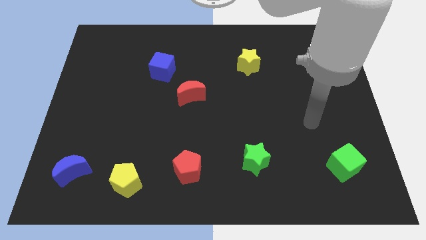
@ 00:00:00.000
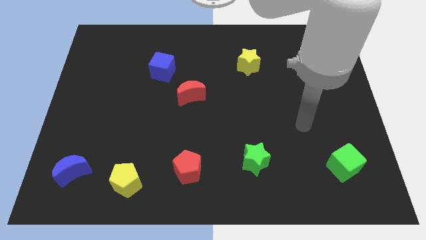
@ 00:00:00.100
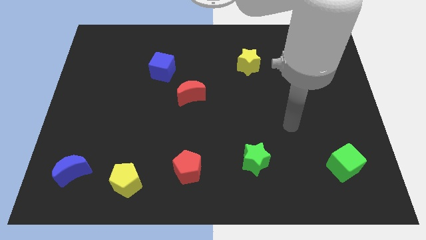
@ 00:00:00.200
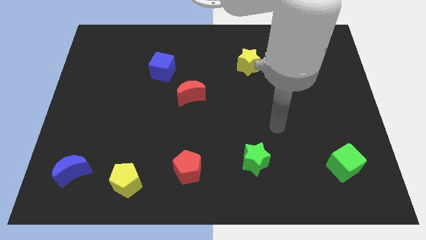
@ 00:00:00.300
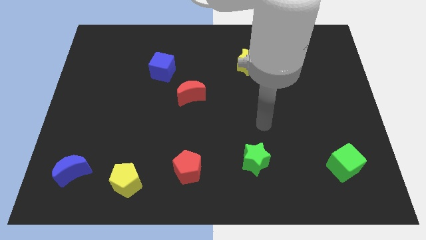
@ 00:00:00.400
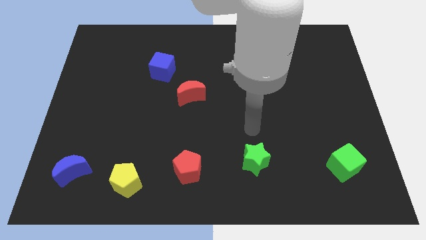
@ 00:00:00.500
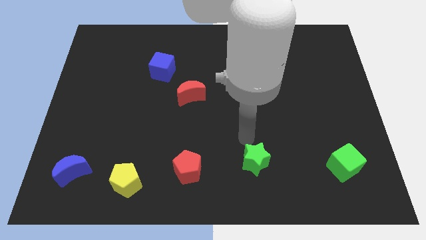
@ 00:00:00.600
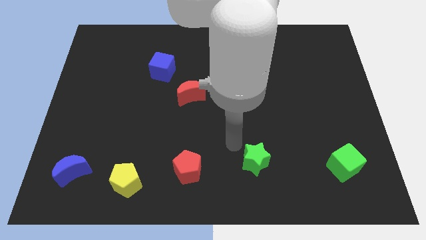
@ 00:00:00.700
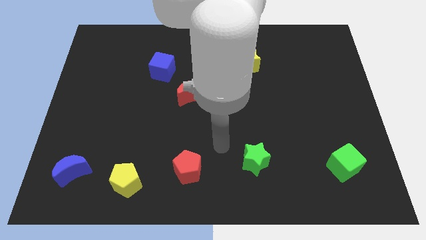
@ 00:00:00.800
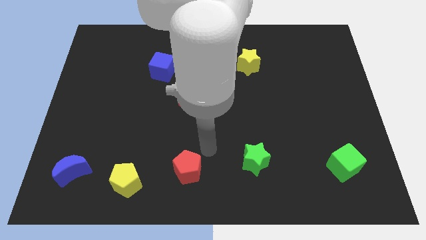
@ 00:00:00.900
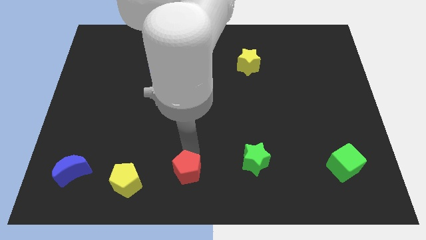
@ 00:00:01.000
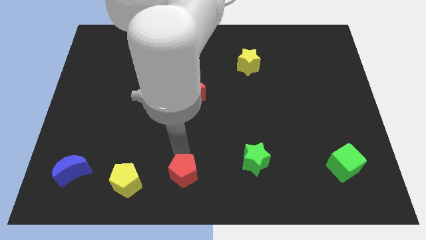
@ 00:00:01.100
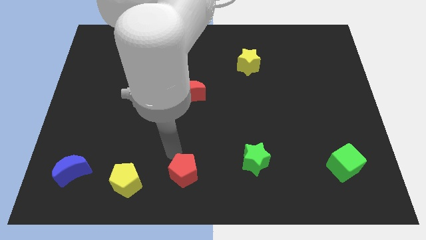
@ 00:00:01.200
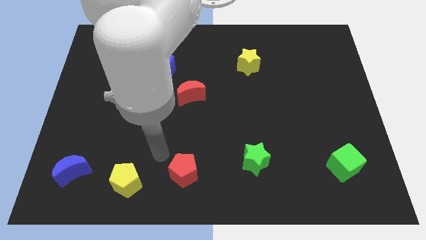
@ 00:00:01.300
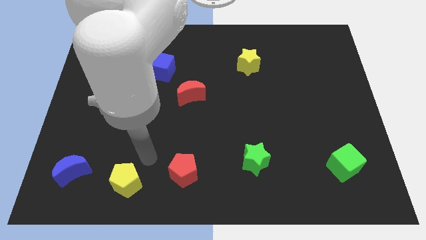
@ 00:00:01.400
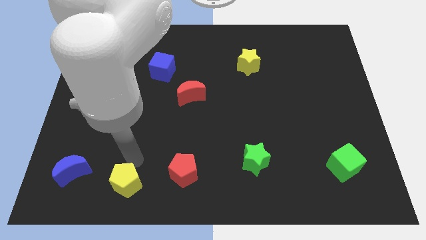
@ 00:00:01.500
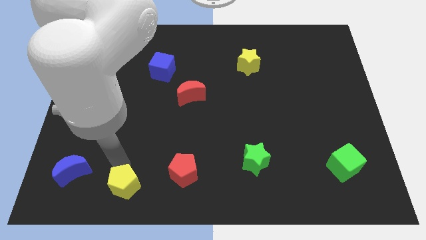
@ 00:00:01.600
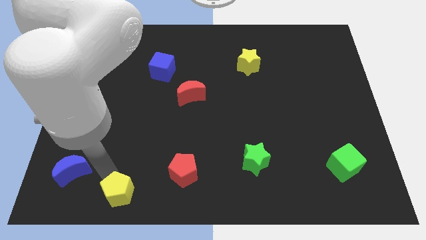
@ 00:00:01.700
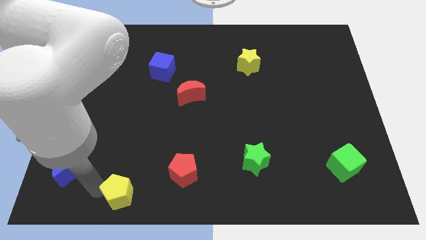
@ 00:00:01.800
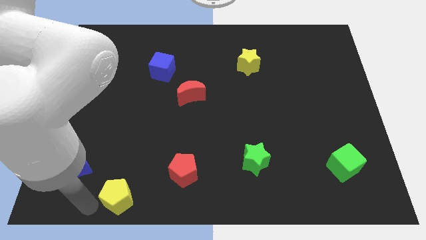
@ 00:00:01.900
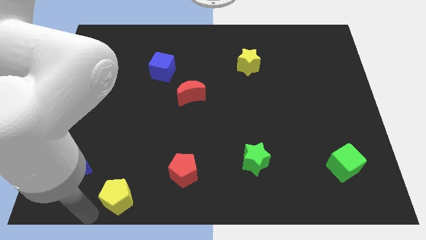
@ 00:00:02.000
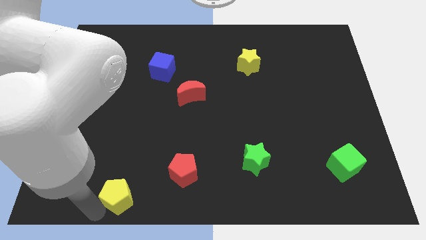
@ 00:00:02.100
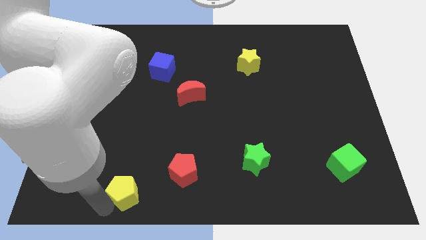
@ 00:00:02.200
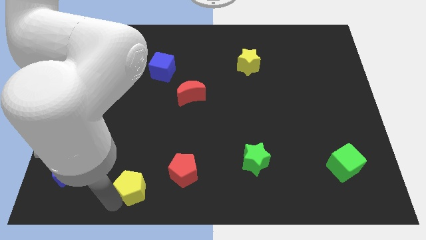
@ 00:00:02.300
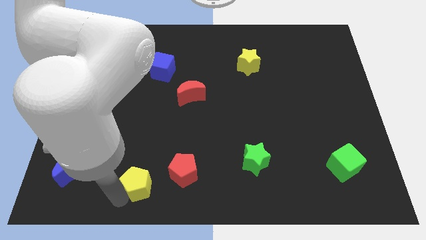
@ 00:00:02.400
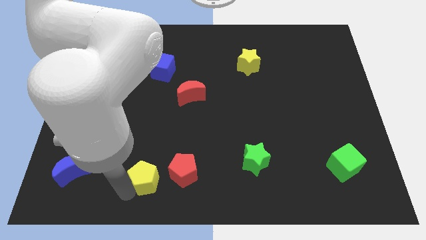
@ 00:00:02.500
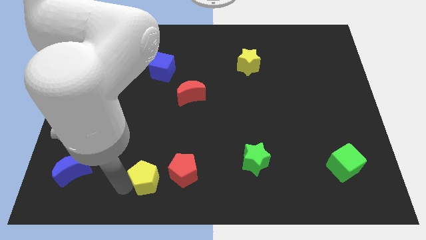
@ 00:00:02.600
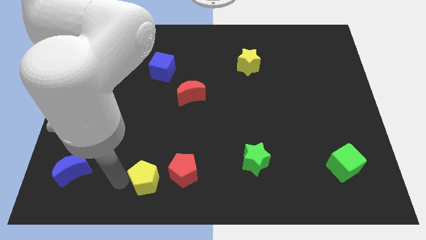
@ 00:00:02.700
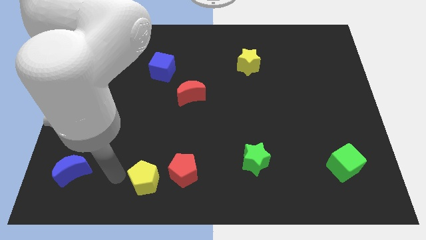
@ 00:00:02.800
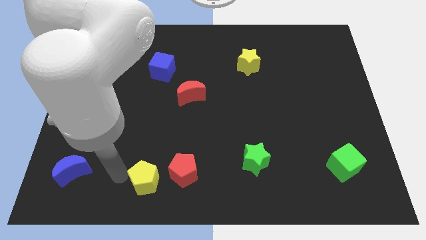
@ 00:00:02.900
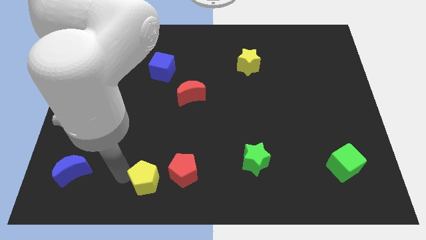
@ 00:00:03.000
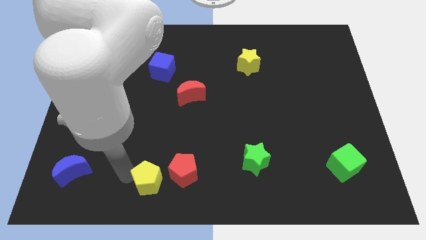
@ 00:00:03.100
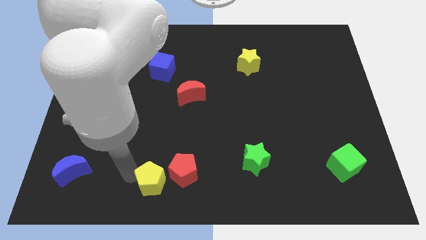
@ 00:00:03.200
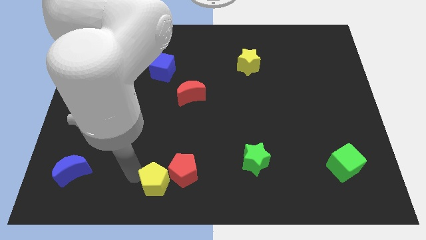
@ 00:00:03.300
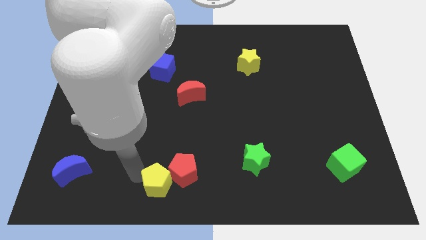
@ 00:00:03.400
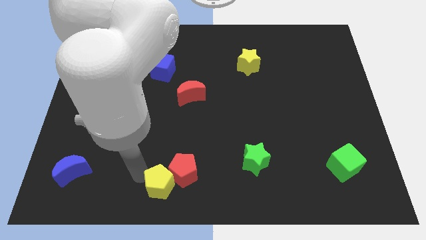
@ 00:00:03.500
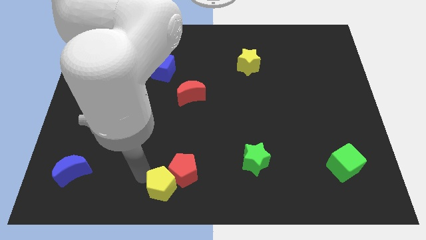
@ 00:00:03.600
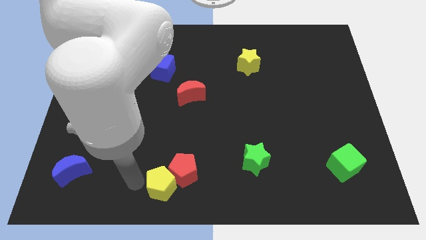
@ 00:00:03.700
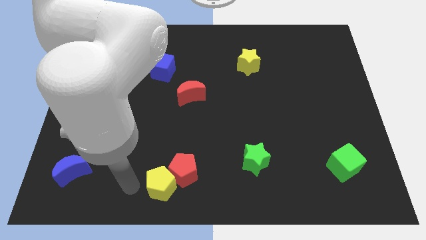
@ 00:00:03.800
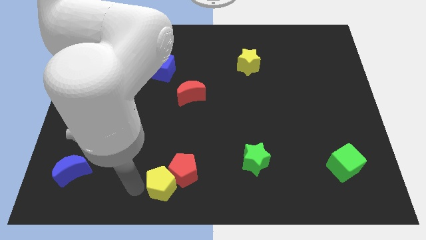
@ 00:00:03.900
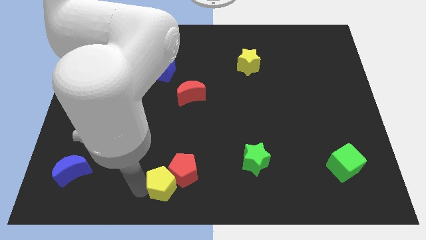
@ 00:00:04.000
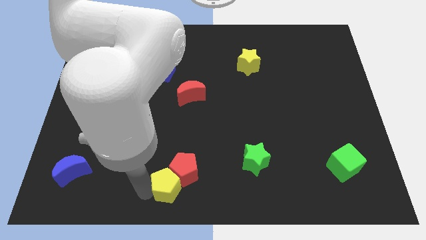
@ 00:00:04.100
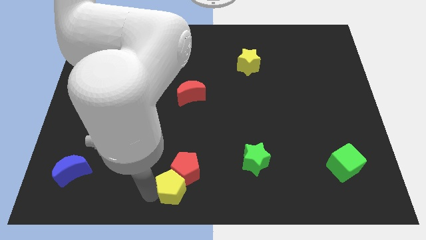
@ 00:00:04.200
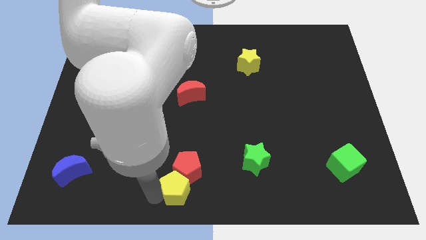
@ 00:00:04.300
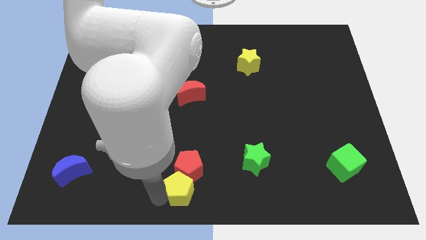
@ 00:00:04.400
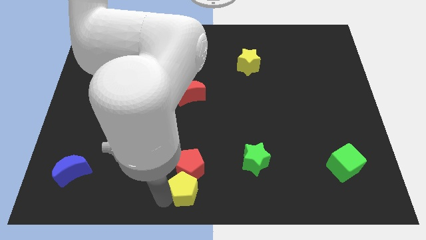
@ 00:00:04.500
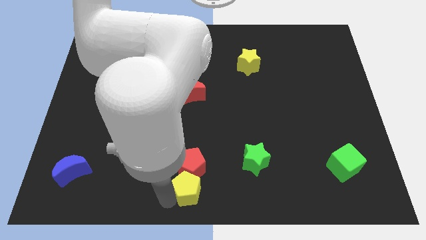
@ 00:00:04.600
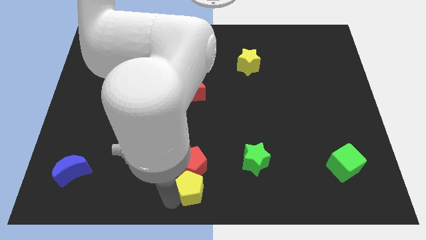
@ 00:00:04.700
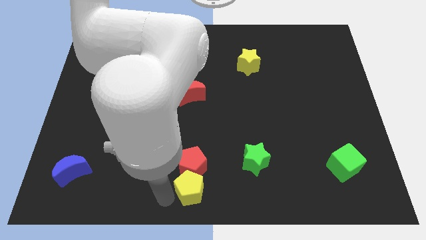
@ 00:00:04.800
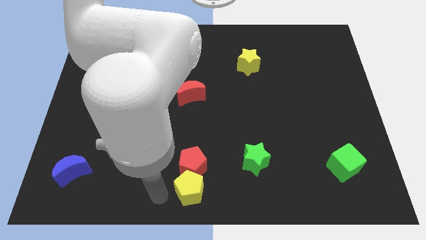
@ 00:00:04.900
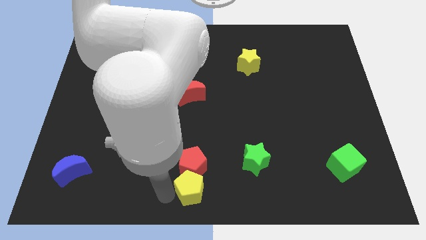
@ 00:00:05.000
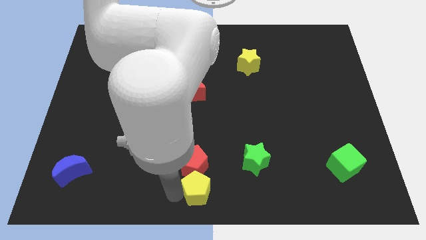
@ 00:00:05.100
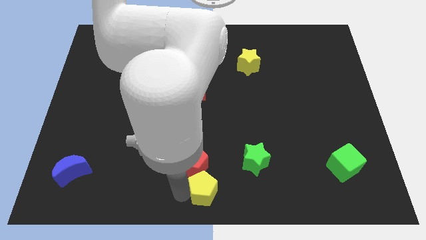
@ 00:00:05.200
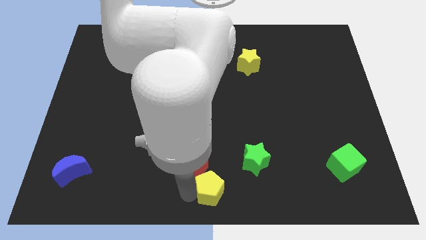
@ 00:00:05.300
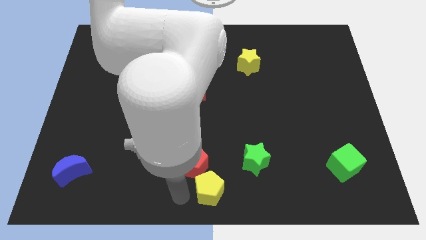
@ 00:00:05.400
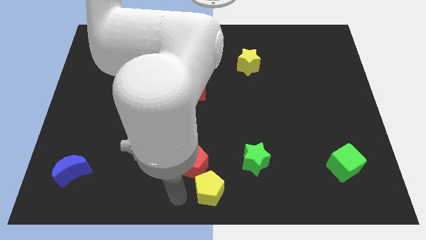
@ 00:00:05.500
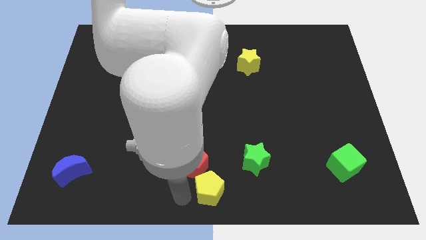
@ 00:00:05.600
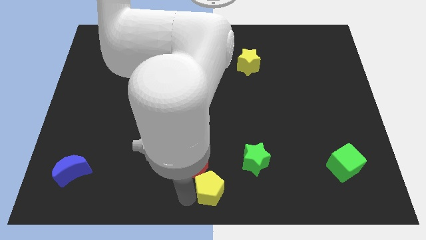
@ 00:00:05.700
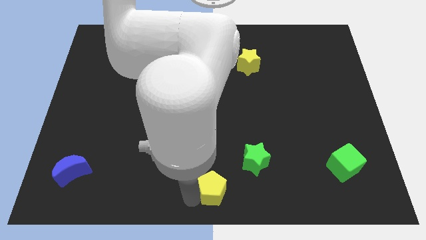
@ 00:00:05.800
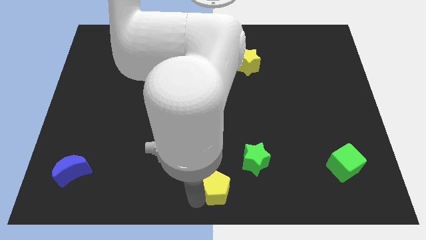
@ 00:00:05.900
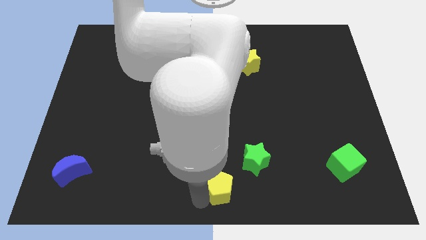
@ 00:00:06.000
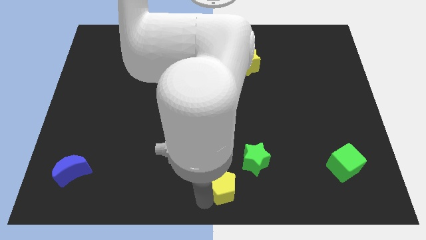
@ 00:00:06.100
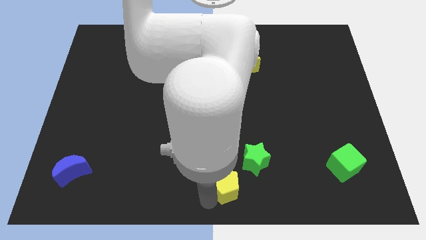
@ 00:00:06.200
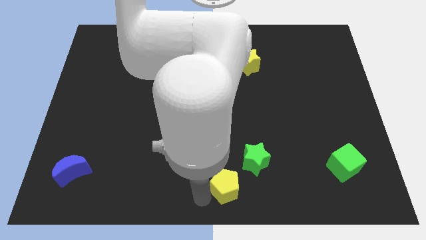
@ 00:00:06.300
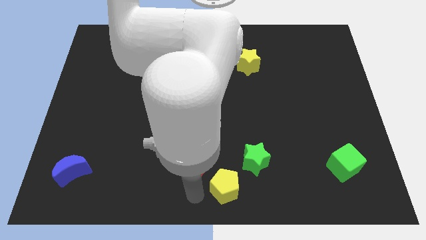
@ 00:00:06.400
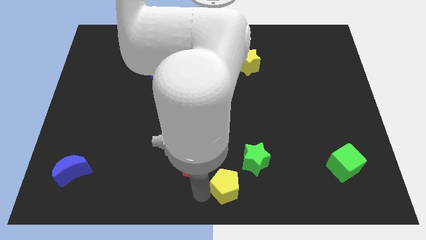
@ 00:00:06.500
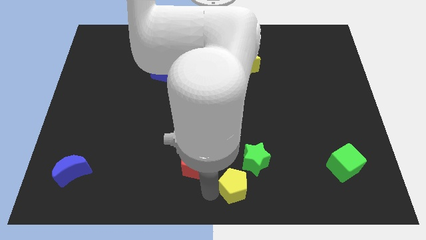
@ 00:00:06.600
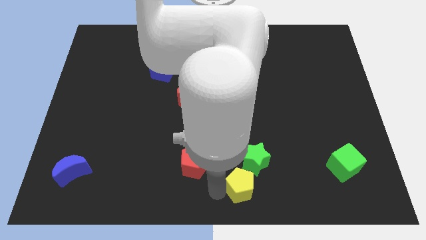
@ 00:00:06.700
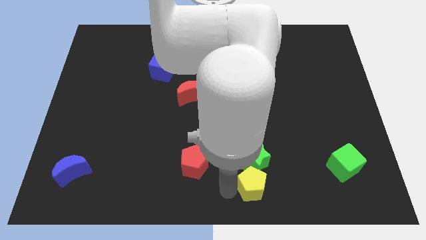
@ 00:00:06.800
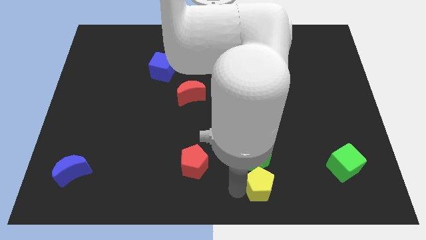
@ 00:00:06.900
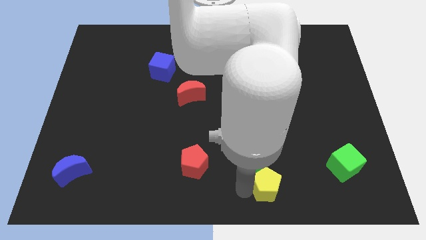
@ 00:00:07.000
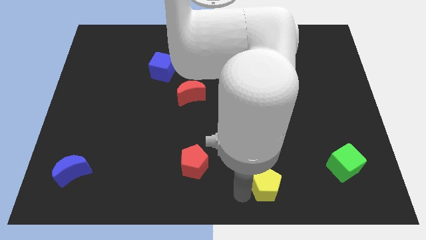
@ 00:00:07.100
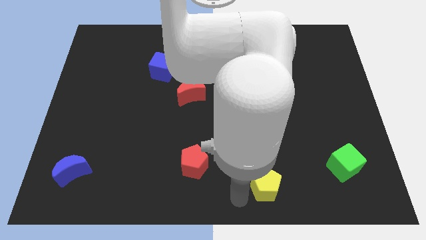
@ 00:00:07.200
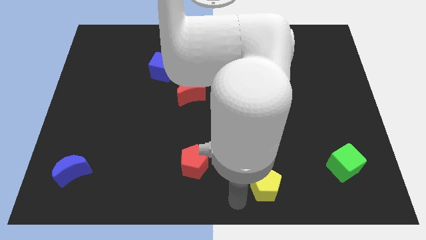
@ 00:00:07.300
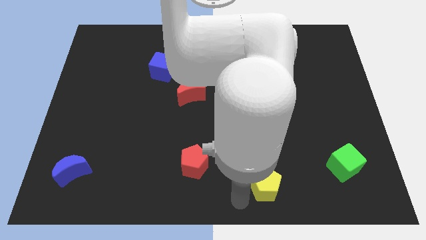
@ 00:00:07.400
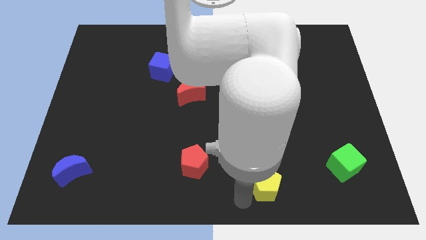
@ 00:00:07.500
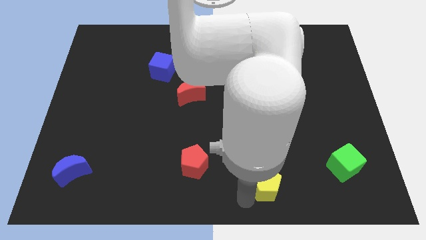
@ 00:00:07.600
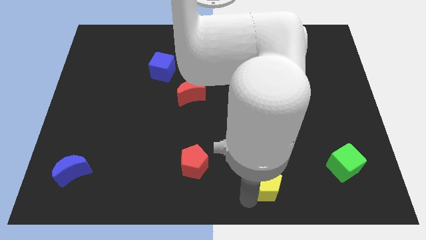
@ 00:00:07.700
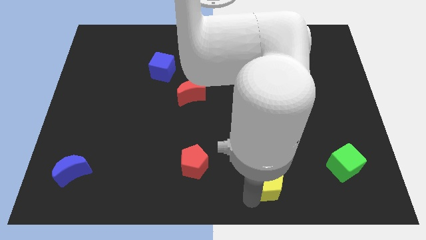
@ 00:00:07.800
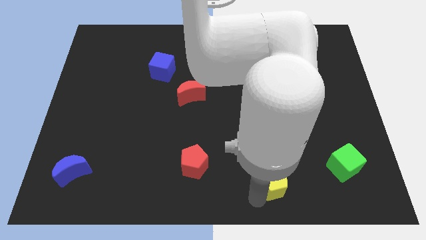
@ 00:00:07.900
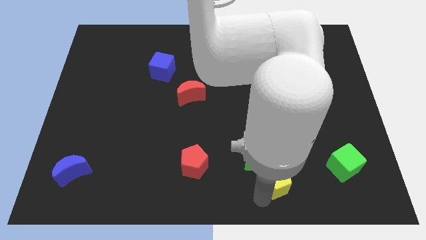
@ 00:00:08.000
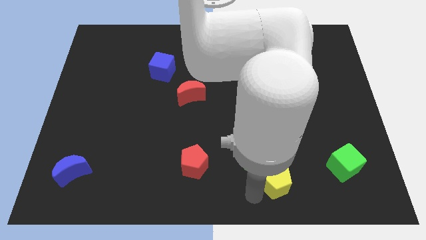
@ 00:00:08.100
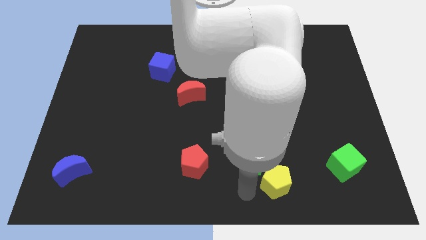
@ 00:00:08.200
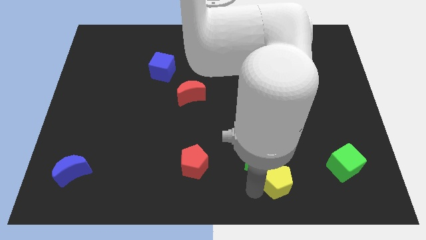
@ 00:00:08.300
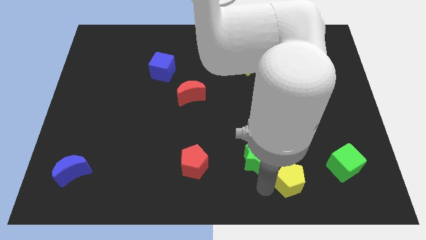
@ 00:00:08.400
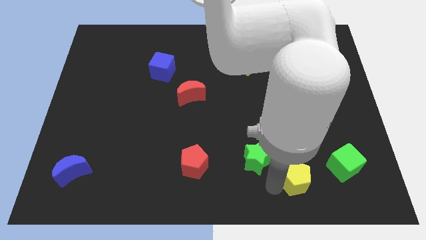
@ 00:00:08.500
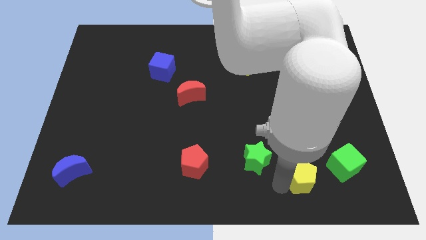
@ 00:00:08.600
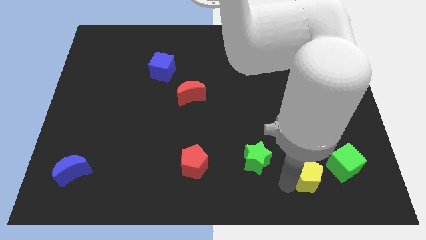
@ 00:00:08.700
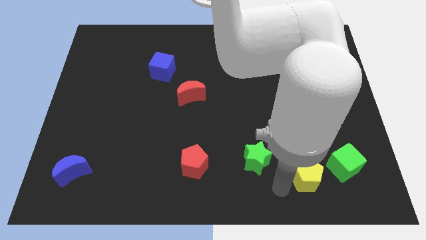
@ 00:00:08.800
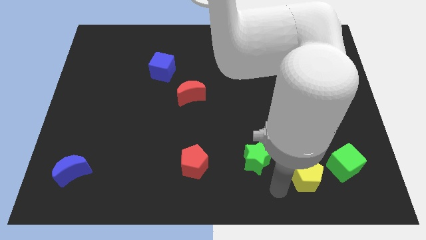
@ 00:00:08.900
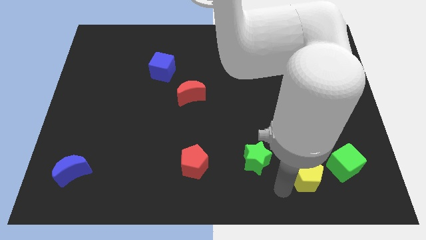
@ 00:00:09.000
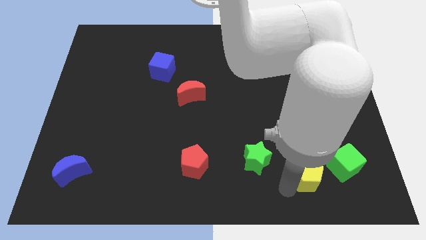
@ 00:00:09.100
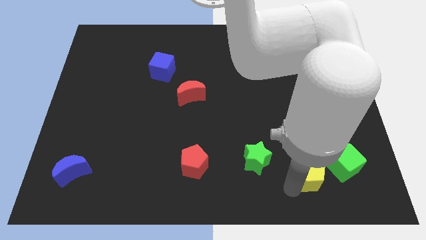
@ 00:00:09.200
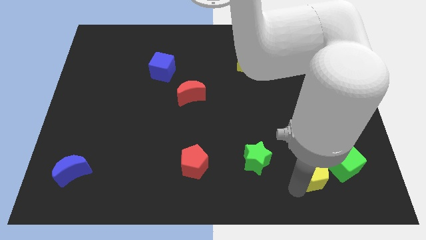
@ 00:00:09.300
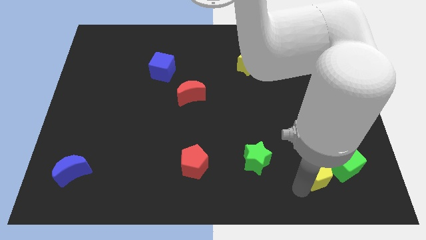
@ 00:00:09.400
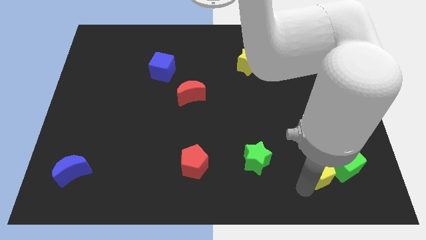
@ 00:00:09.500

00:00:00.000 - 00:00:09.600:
slide the yellow pentagon to the green cube
